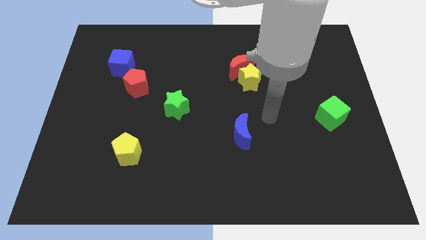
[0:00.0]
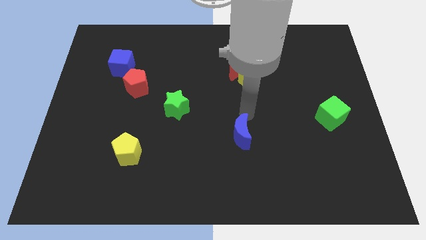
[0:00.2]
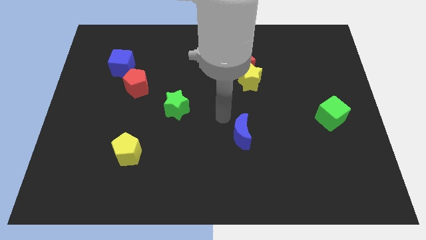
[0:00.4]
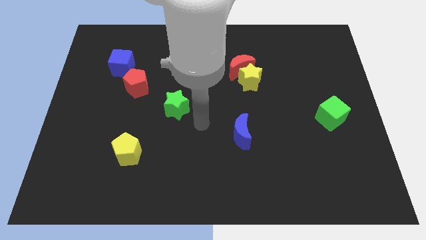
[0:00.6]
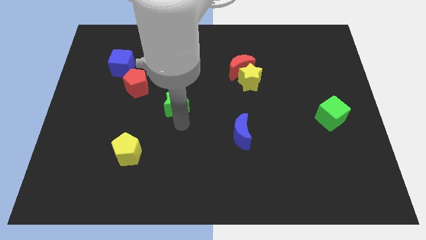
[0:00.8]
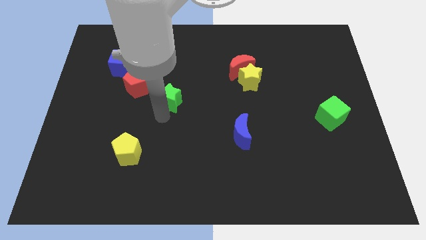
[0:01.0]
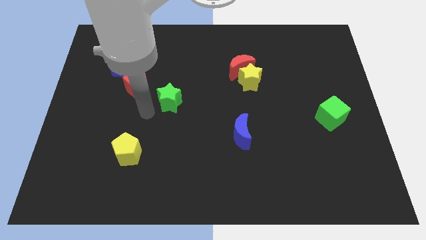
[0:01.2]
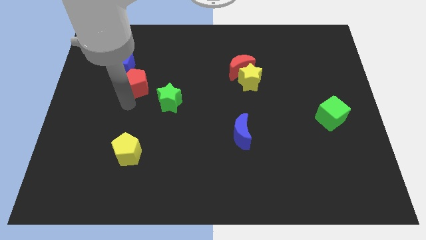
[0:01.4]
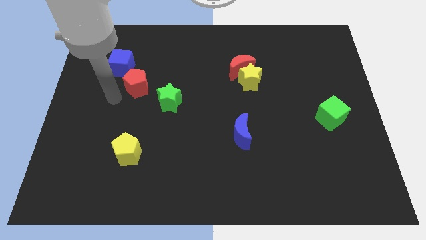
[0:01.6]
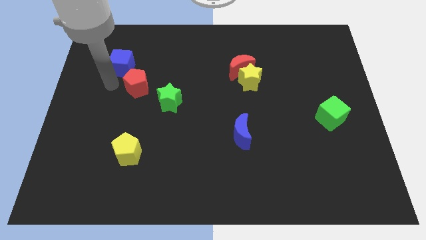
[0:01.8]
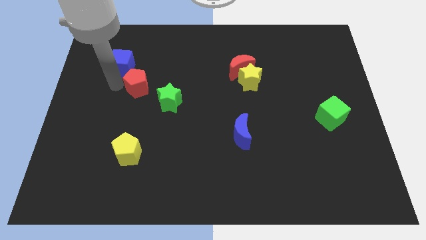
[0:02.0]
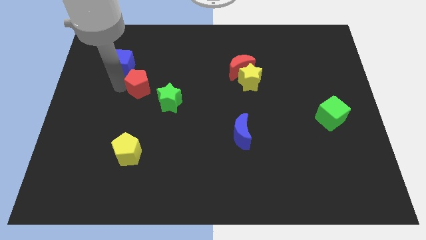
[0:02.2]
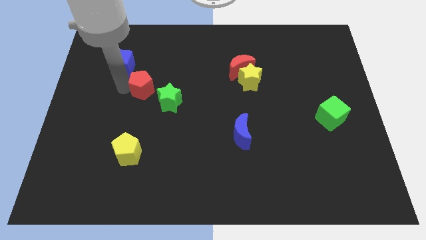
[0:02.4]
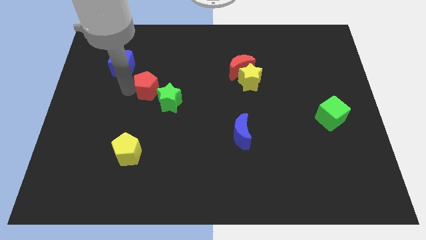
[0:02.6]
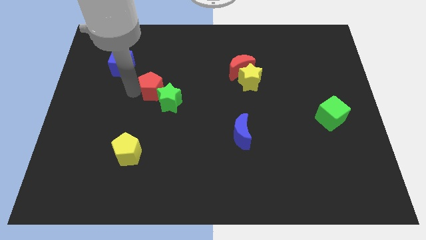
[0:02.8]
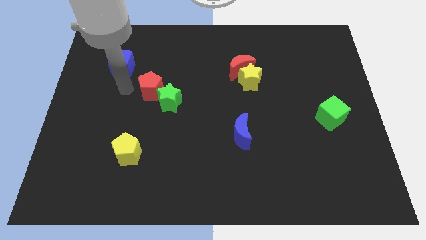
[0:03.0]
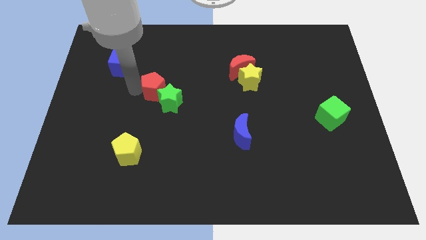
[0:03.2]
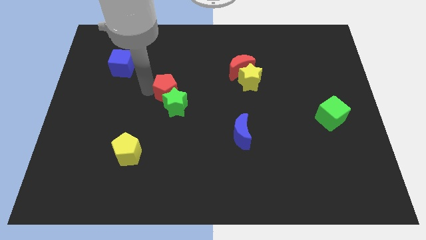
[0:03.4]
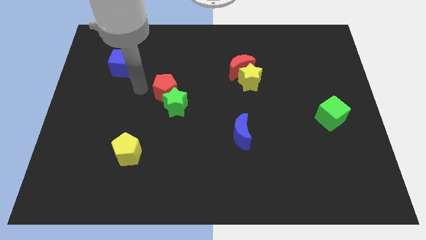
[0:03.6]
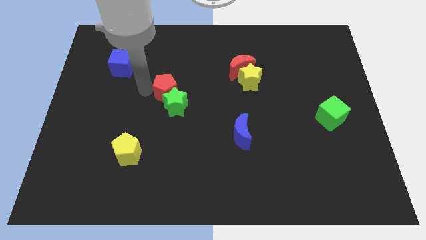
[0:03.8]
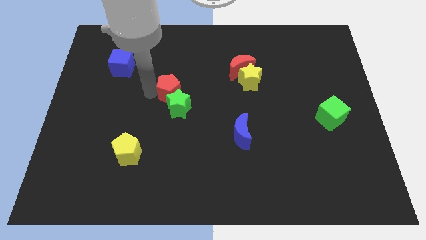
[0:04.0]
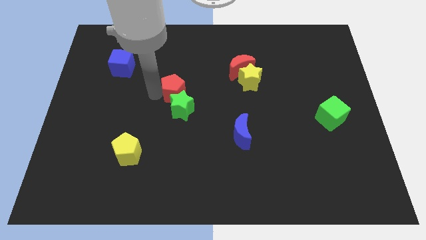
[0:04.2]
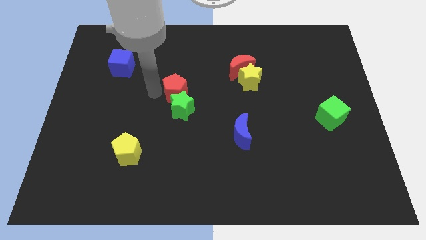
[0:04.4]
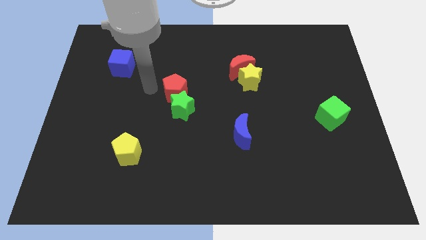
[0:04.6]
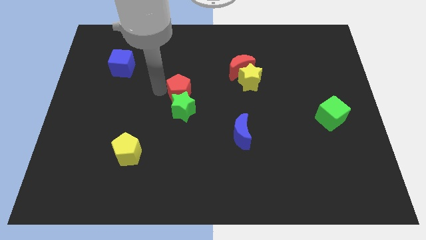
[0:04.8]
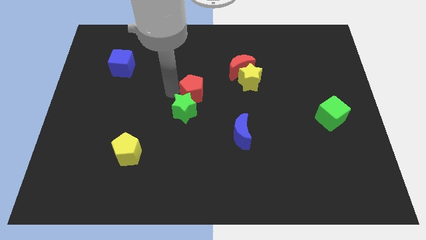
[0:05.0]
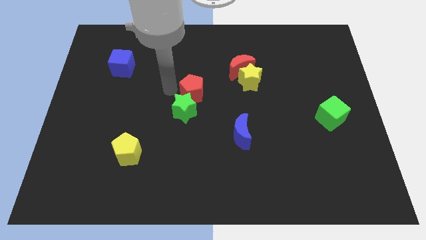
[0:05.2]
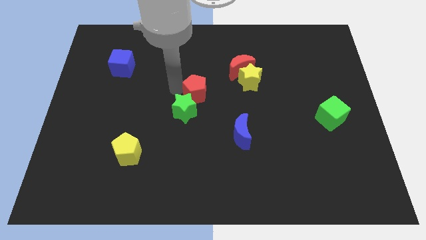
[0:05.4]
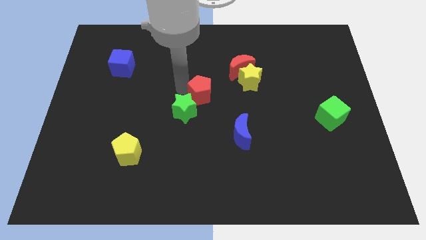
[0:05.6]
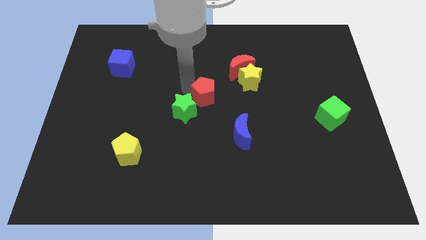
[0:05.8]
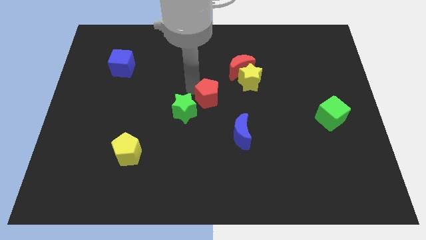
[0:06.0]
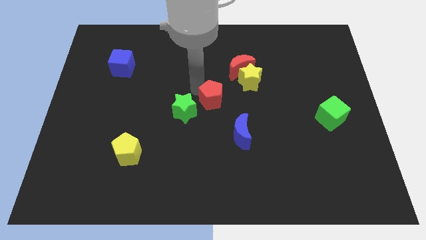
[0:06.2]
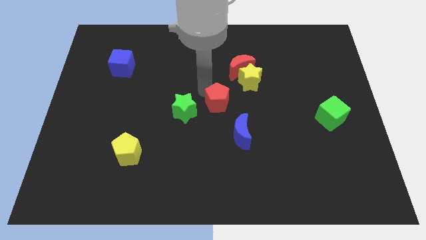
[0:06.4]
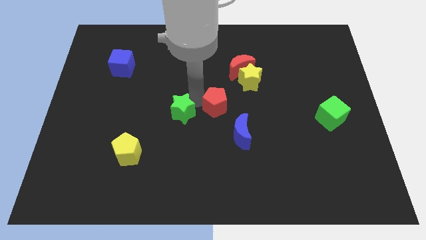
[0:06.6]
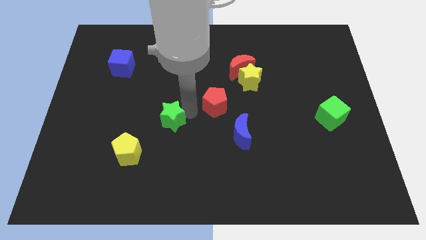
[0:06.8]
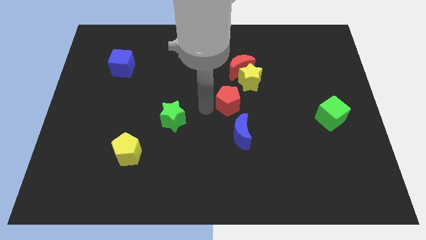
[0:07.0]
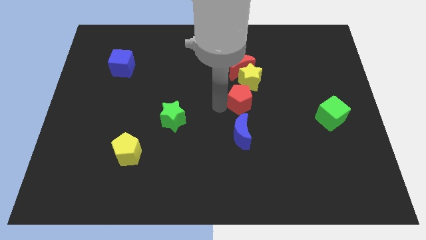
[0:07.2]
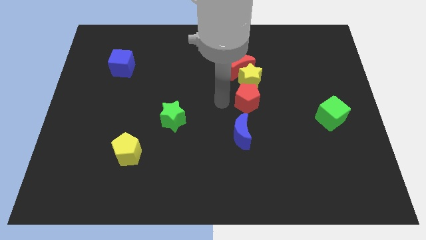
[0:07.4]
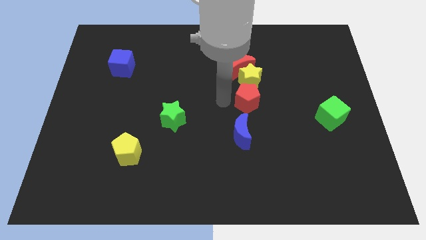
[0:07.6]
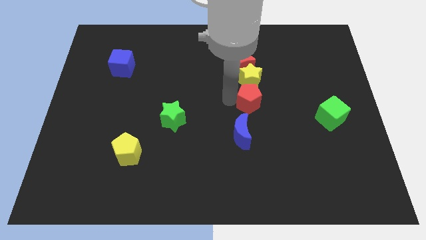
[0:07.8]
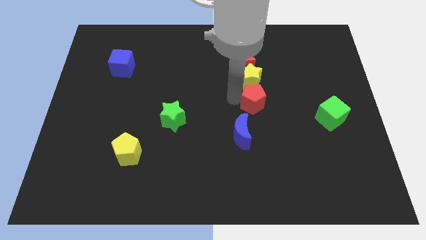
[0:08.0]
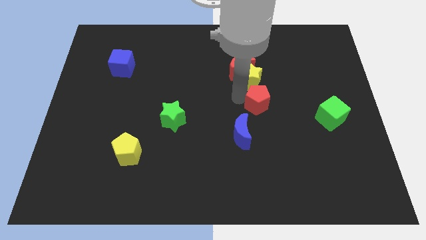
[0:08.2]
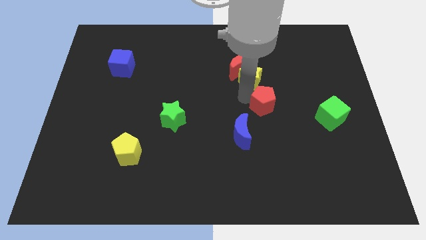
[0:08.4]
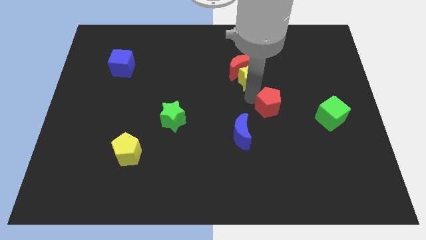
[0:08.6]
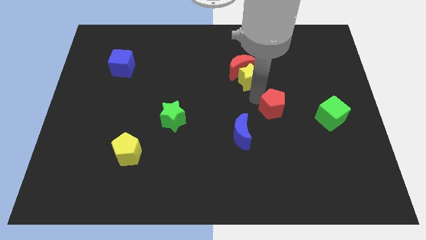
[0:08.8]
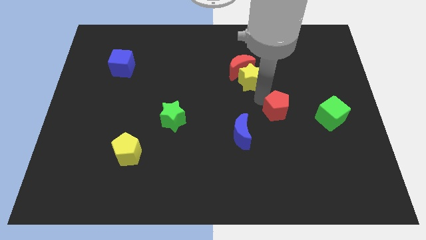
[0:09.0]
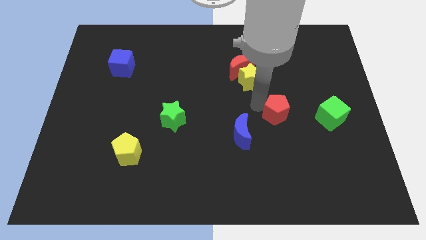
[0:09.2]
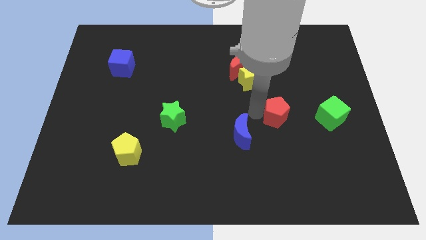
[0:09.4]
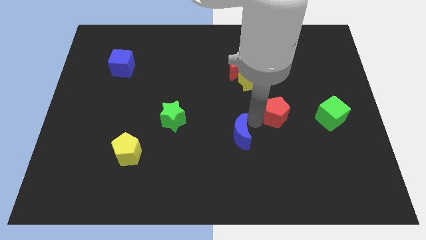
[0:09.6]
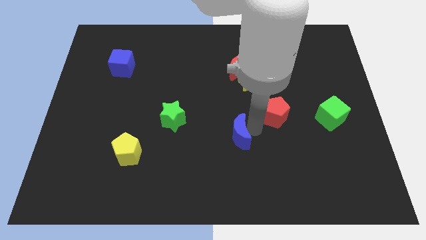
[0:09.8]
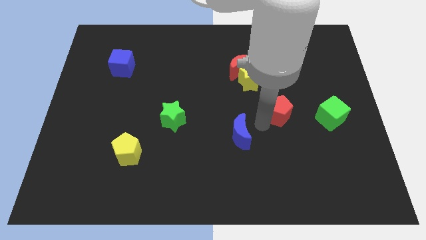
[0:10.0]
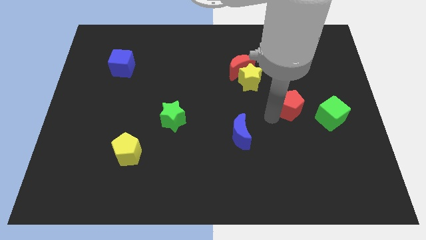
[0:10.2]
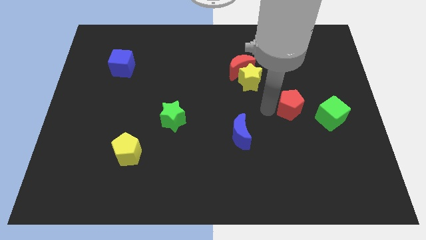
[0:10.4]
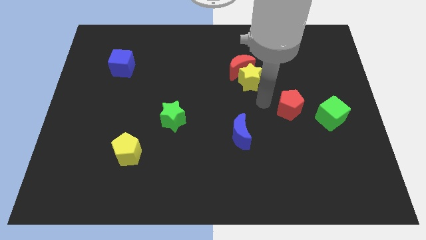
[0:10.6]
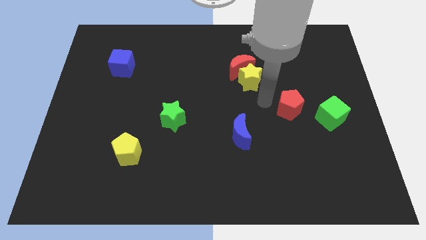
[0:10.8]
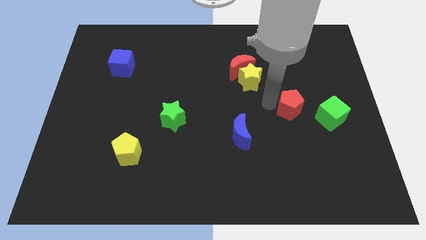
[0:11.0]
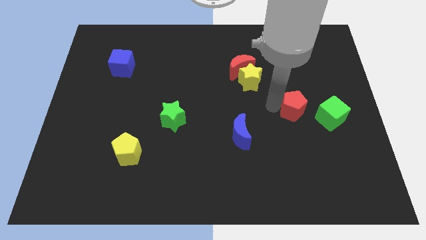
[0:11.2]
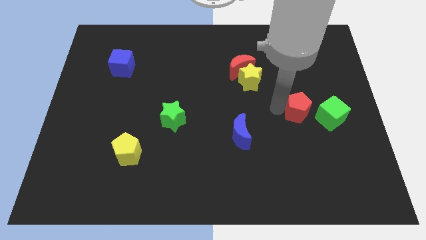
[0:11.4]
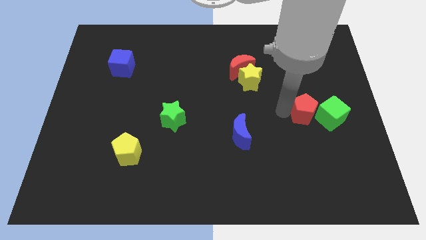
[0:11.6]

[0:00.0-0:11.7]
put the red pentagon close to the green cube

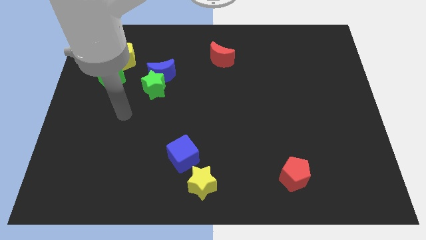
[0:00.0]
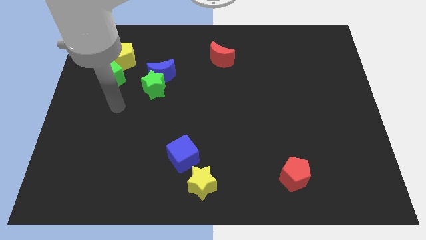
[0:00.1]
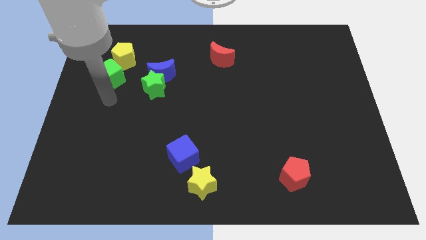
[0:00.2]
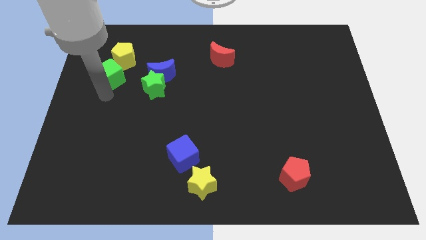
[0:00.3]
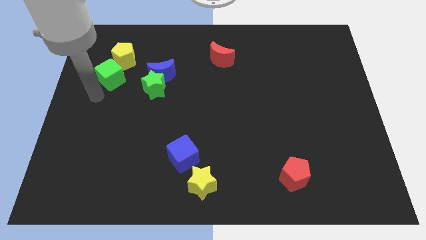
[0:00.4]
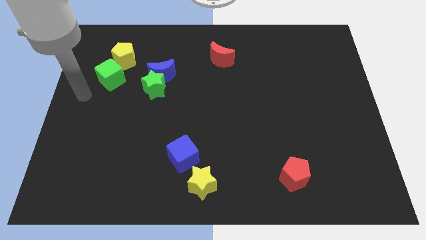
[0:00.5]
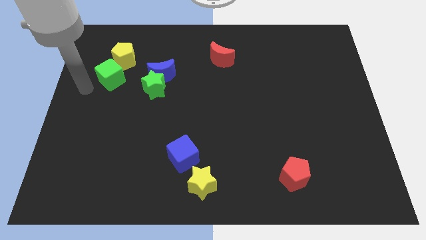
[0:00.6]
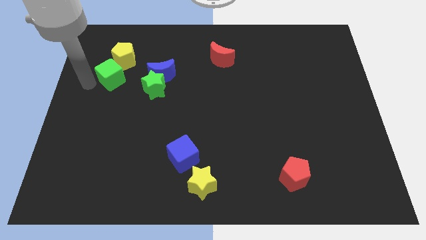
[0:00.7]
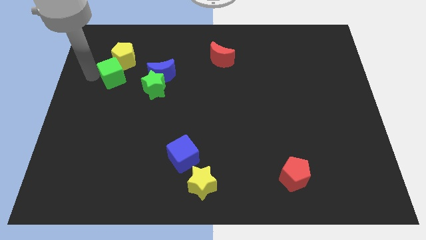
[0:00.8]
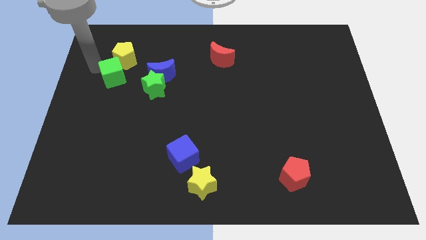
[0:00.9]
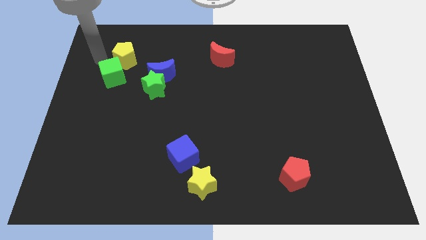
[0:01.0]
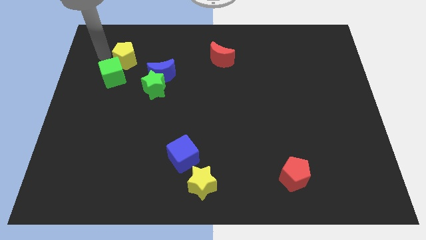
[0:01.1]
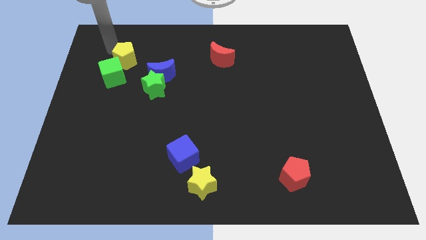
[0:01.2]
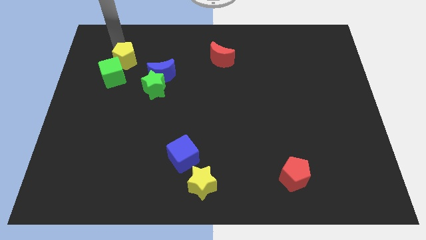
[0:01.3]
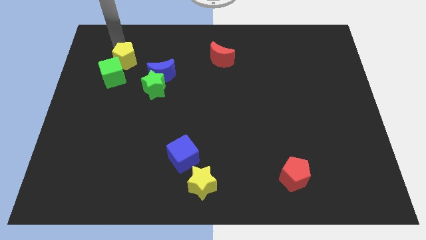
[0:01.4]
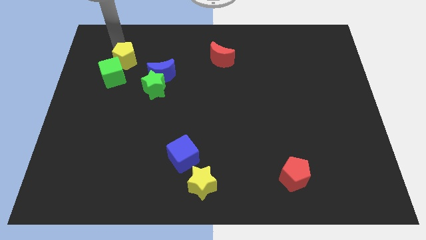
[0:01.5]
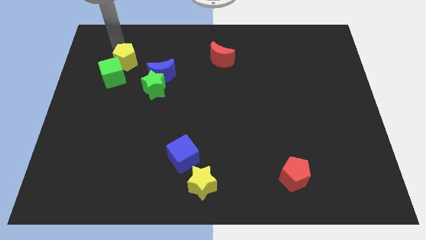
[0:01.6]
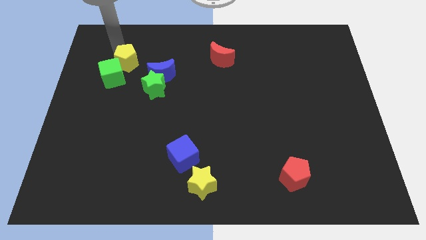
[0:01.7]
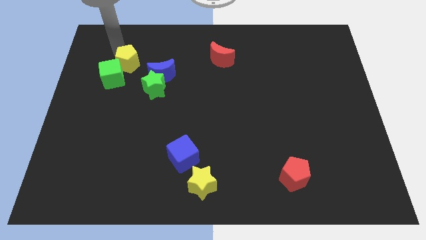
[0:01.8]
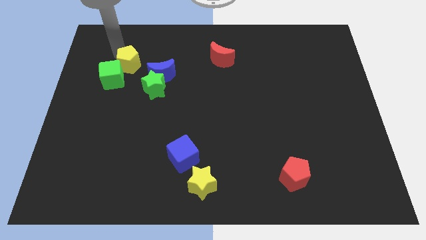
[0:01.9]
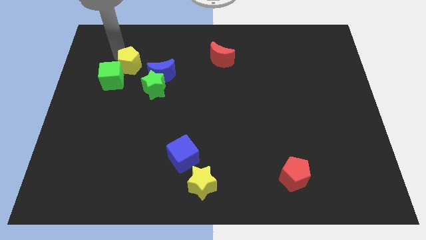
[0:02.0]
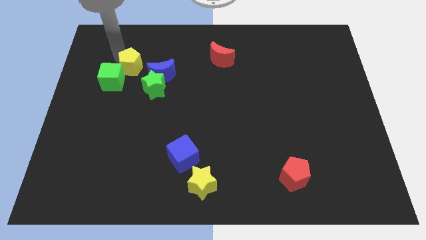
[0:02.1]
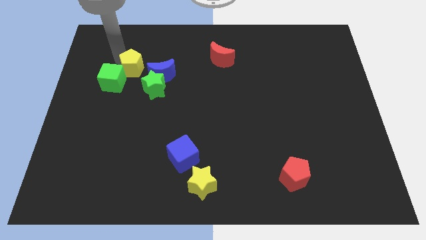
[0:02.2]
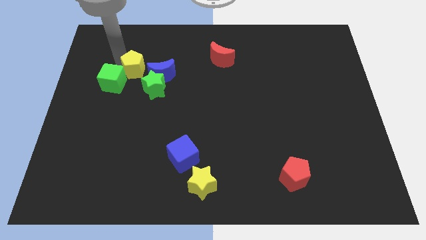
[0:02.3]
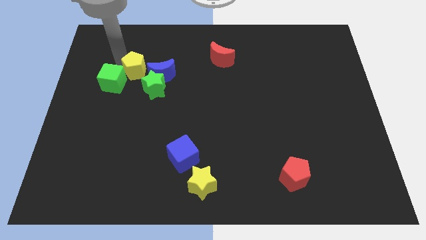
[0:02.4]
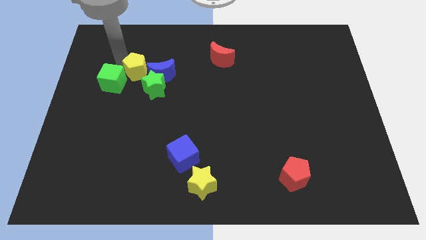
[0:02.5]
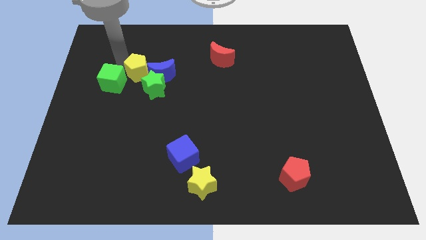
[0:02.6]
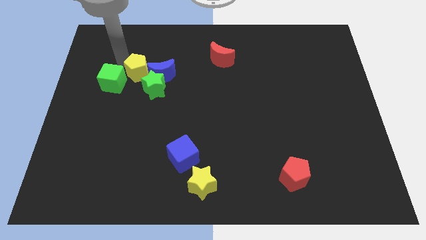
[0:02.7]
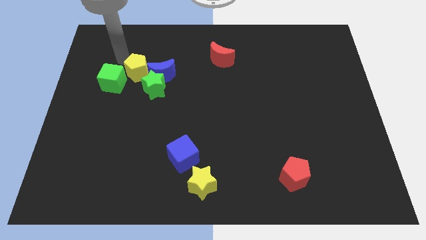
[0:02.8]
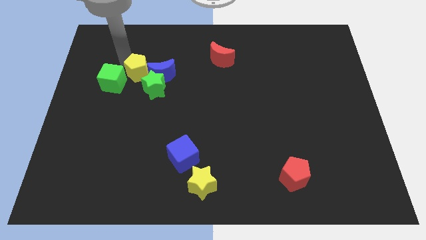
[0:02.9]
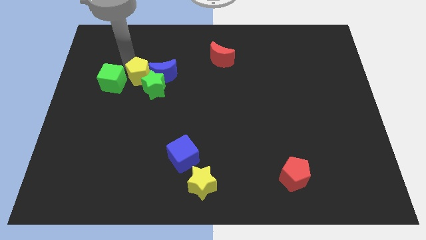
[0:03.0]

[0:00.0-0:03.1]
put the yellow pentagon towards the green star
